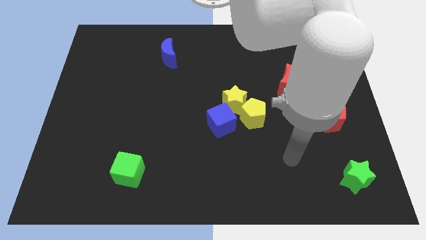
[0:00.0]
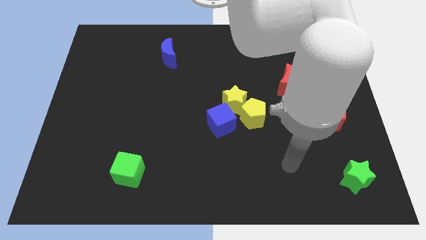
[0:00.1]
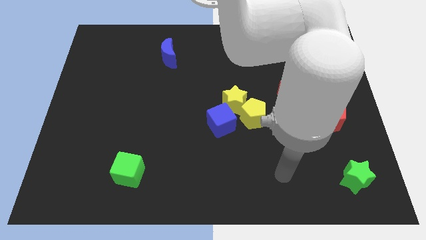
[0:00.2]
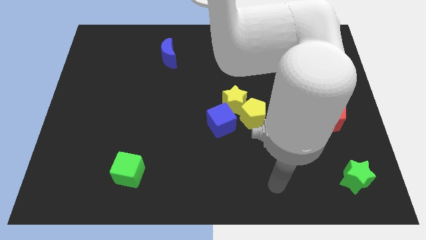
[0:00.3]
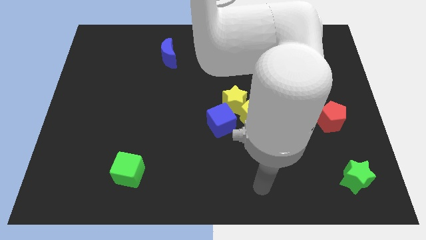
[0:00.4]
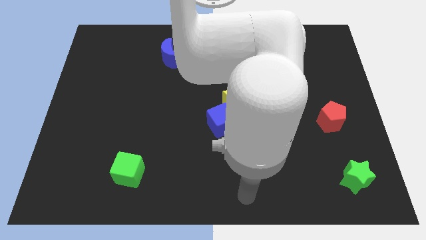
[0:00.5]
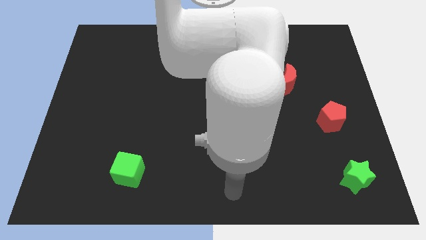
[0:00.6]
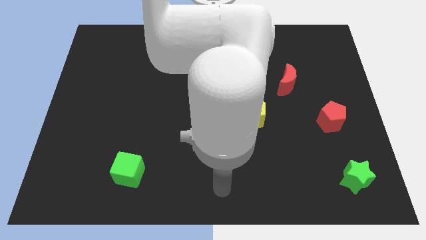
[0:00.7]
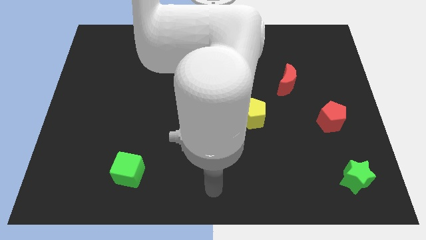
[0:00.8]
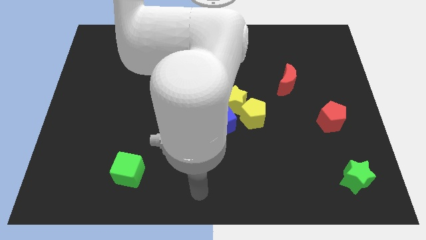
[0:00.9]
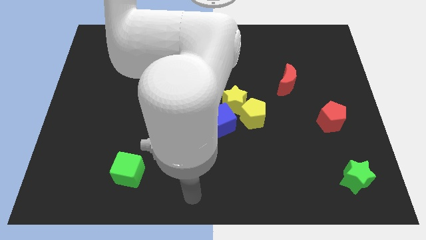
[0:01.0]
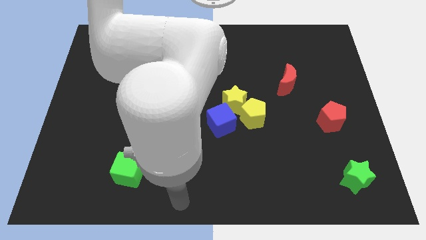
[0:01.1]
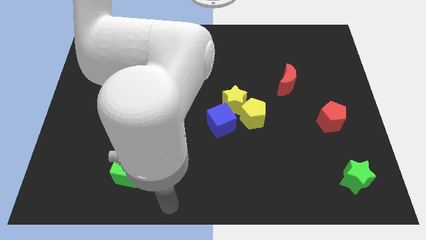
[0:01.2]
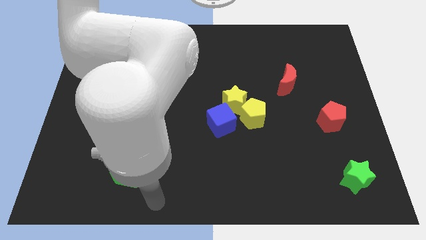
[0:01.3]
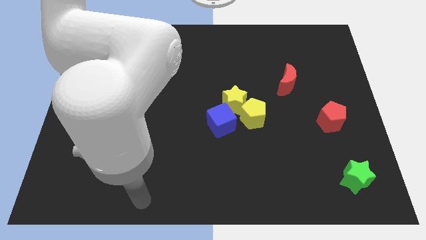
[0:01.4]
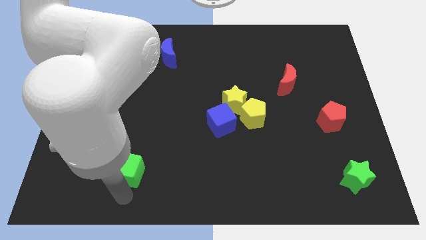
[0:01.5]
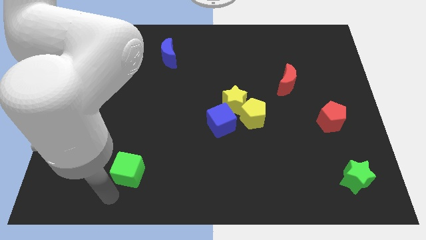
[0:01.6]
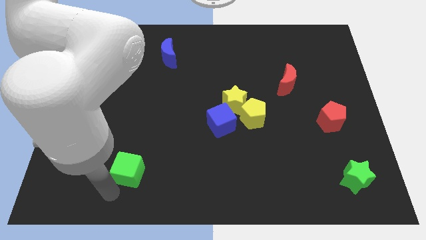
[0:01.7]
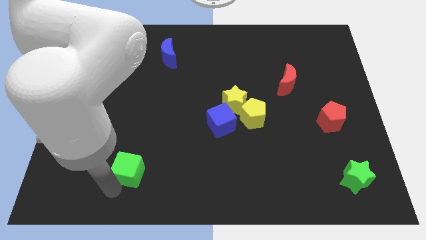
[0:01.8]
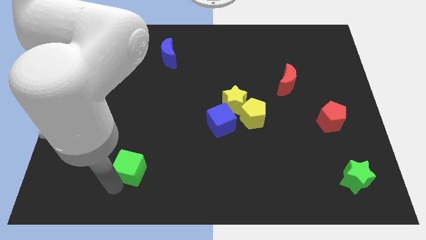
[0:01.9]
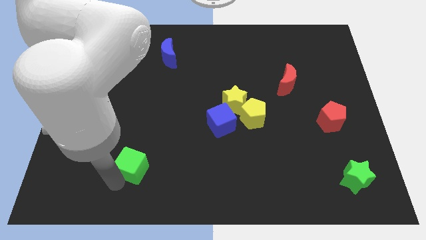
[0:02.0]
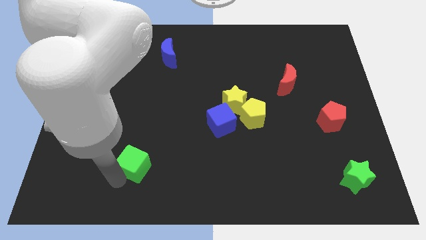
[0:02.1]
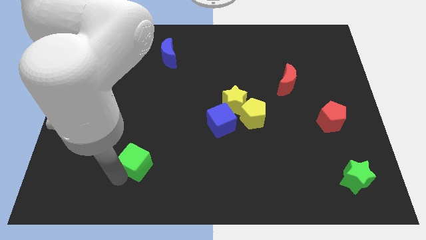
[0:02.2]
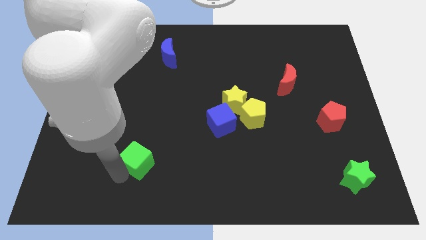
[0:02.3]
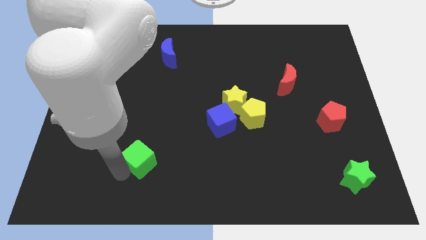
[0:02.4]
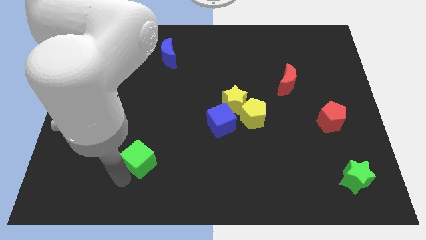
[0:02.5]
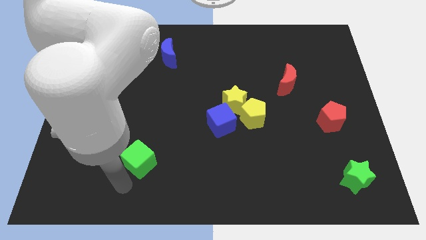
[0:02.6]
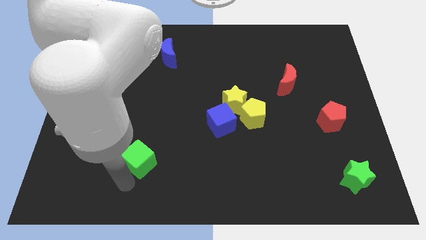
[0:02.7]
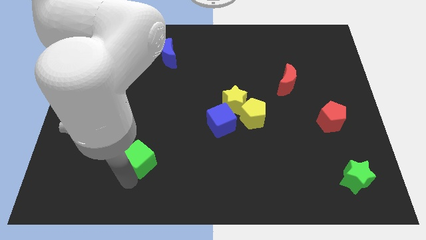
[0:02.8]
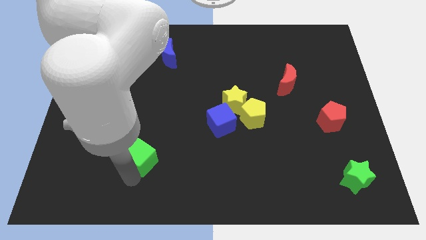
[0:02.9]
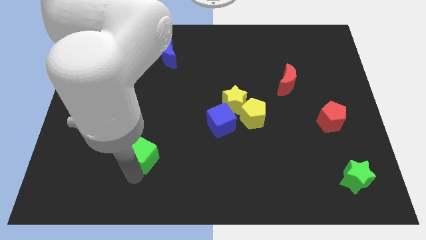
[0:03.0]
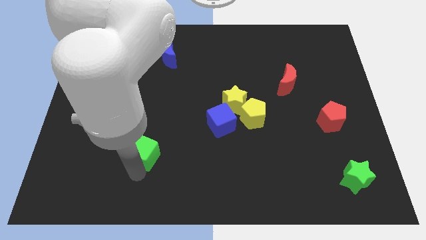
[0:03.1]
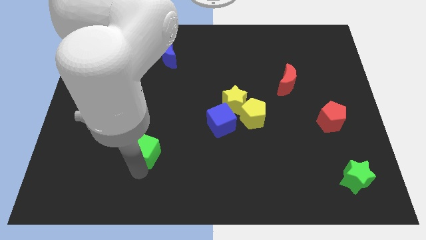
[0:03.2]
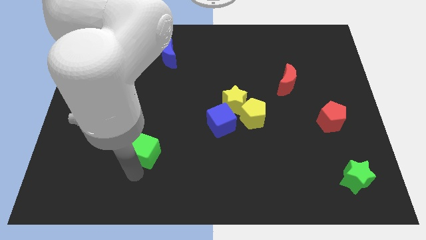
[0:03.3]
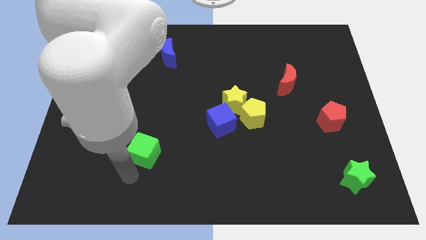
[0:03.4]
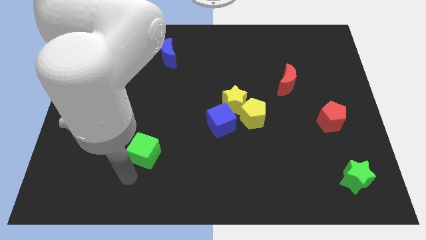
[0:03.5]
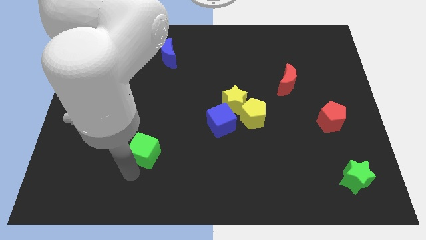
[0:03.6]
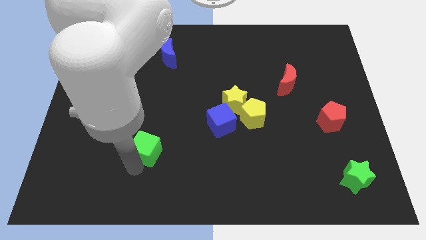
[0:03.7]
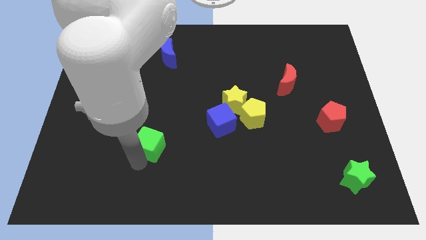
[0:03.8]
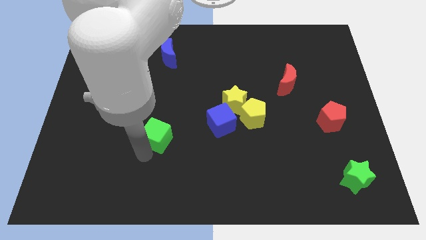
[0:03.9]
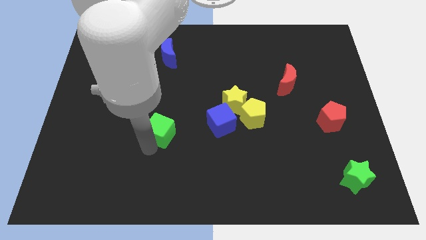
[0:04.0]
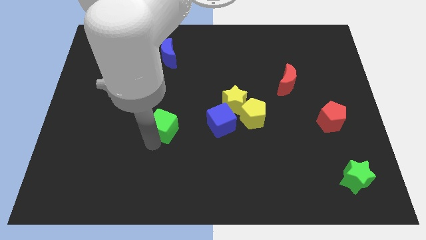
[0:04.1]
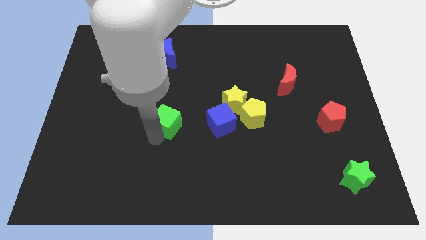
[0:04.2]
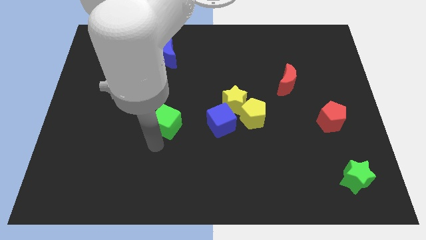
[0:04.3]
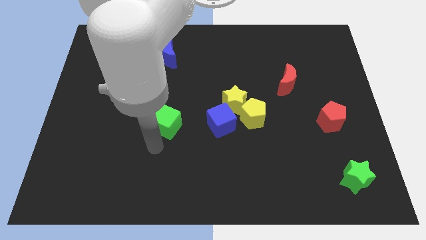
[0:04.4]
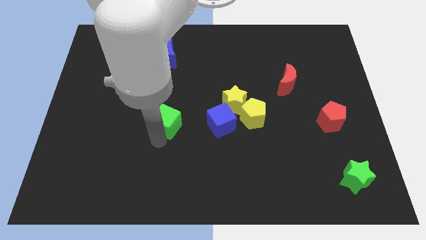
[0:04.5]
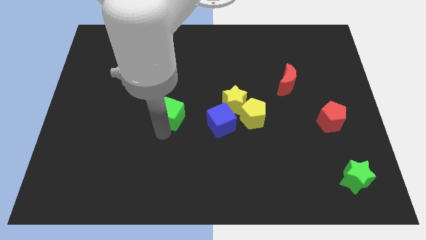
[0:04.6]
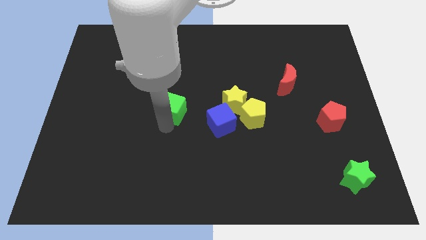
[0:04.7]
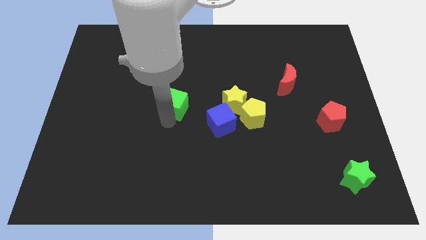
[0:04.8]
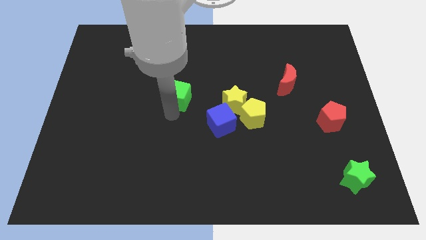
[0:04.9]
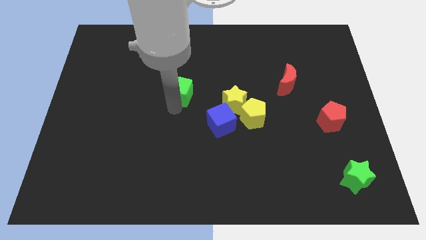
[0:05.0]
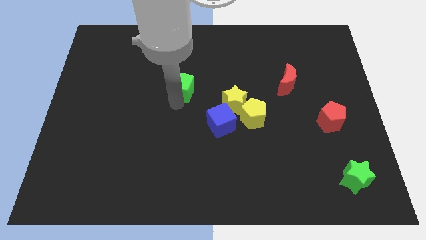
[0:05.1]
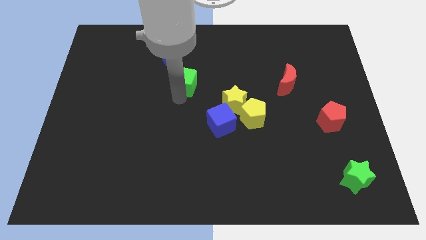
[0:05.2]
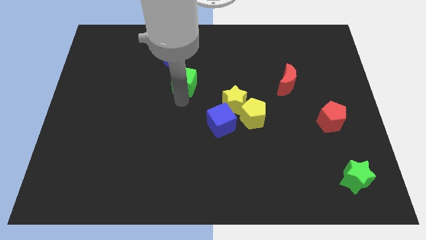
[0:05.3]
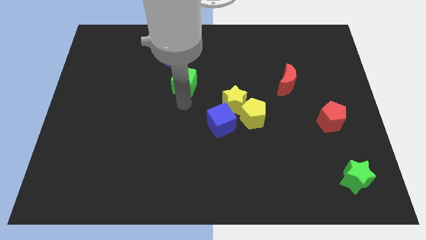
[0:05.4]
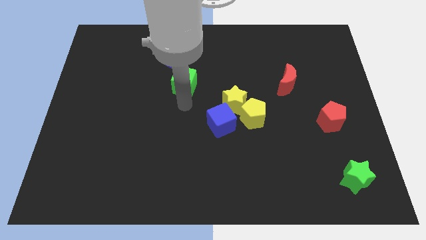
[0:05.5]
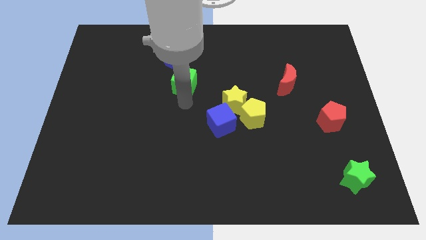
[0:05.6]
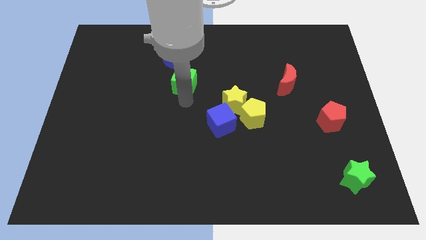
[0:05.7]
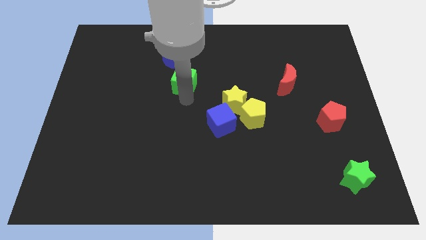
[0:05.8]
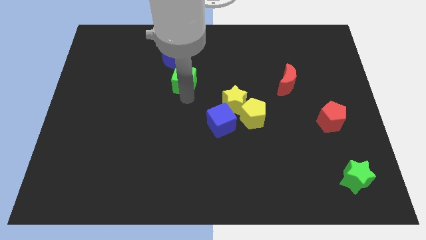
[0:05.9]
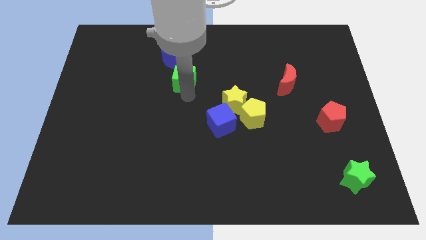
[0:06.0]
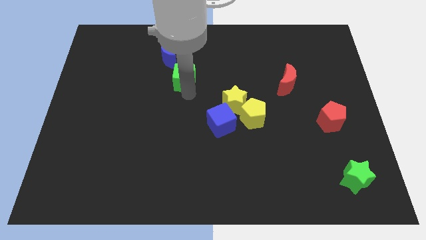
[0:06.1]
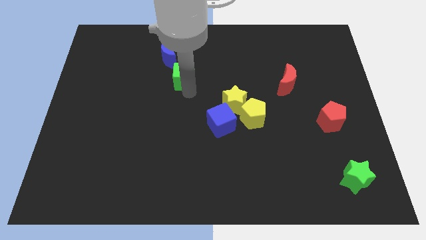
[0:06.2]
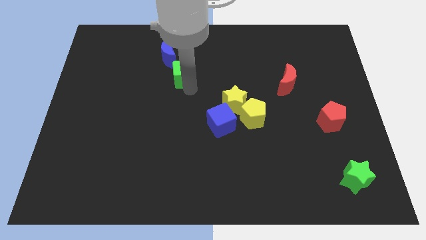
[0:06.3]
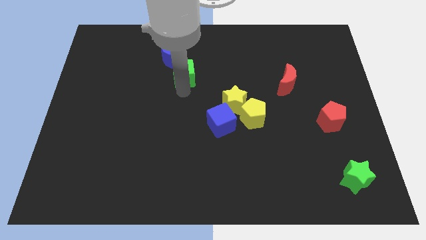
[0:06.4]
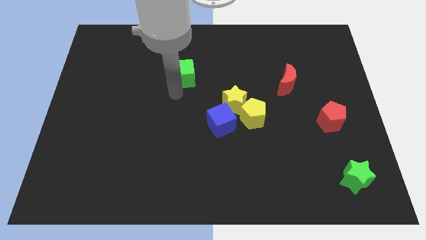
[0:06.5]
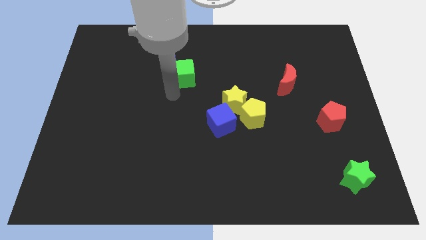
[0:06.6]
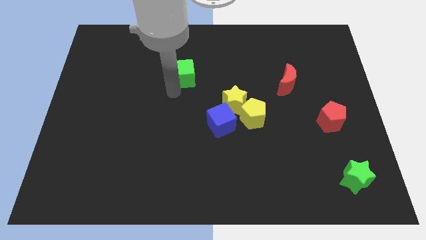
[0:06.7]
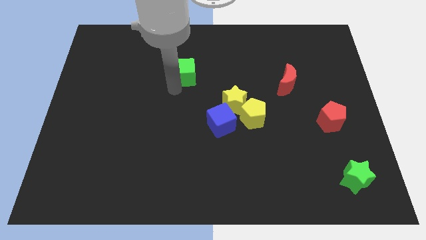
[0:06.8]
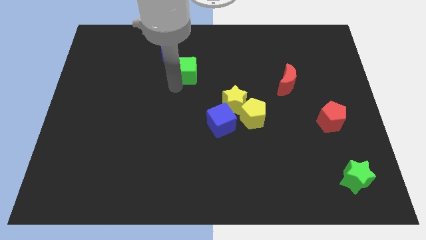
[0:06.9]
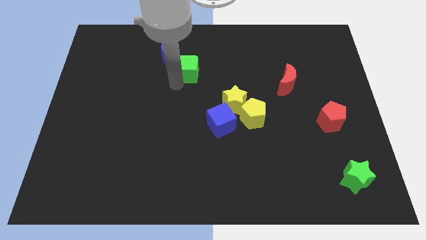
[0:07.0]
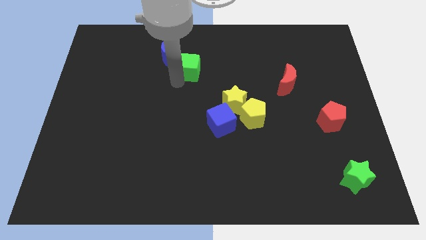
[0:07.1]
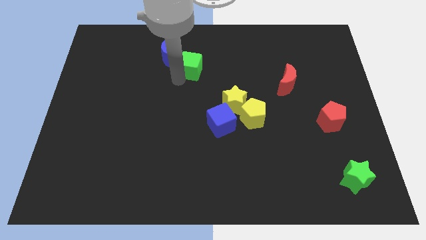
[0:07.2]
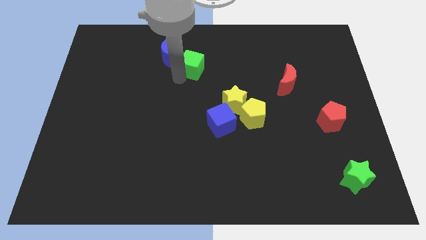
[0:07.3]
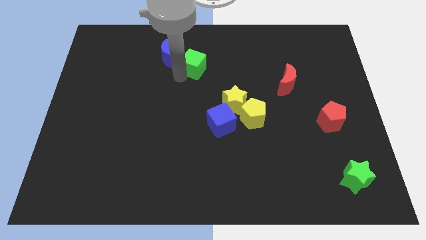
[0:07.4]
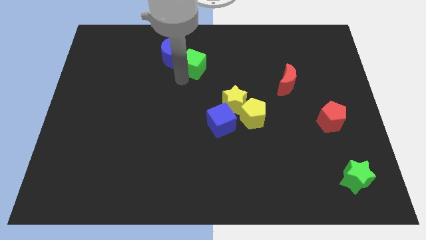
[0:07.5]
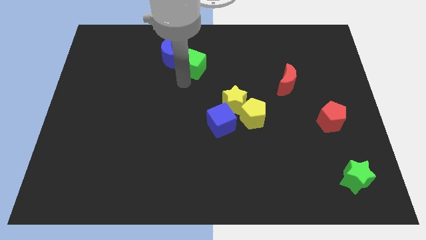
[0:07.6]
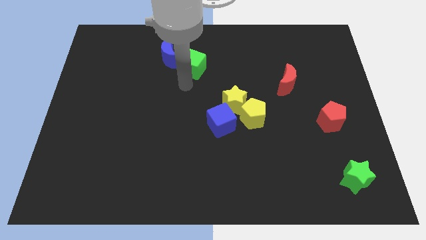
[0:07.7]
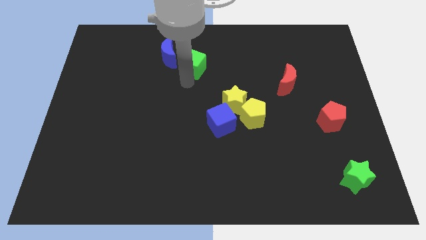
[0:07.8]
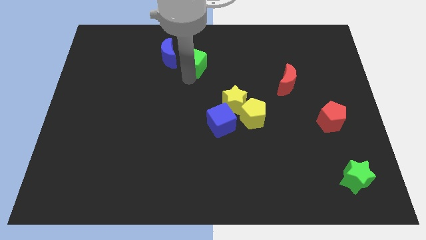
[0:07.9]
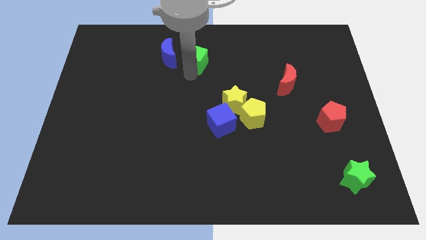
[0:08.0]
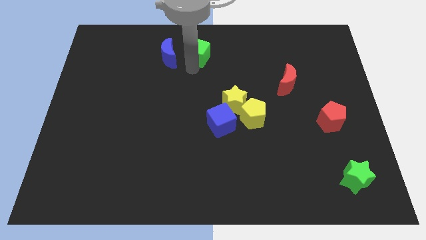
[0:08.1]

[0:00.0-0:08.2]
slide the green cube to the towards your base
